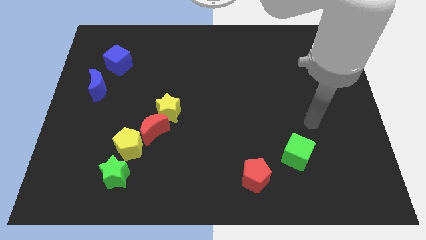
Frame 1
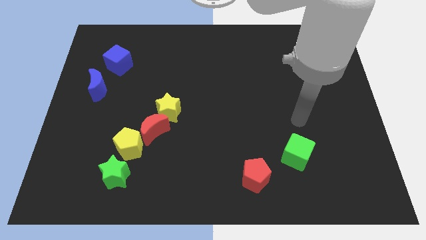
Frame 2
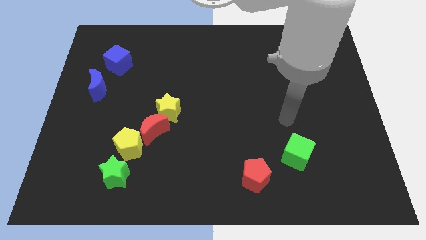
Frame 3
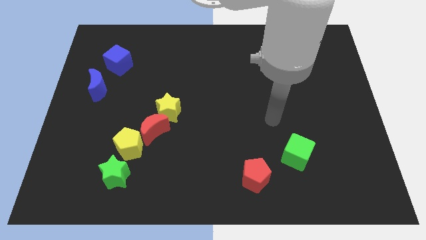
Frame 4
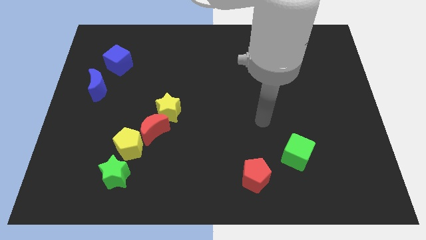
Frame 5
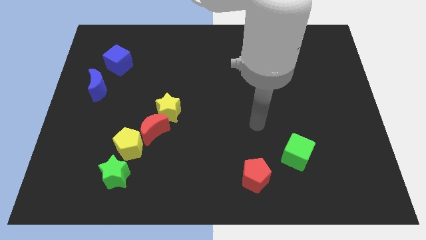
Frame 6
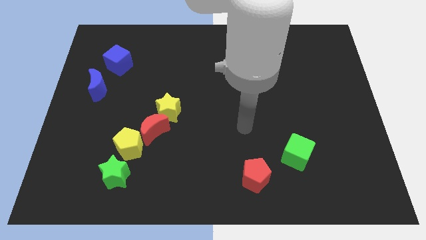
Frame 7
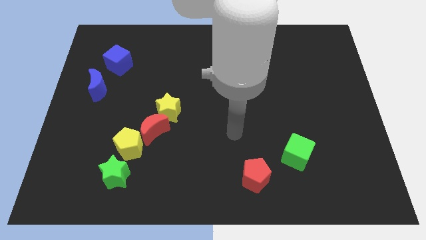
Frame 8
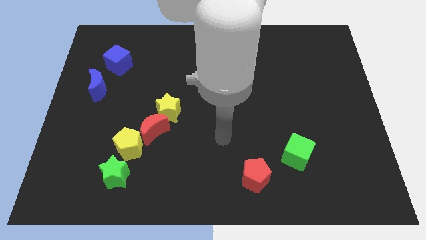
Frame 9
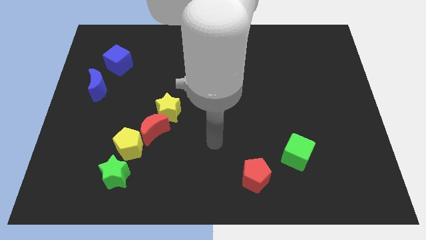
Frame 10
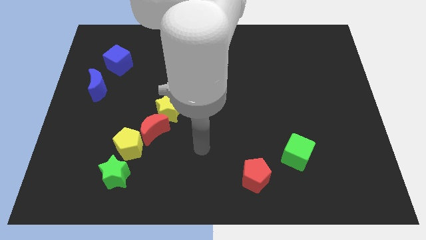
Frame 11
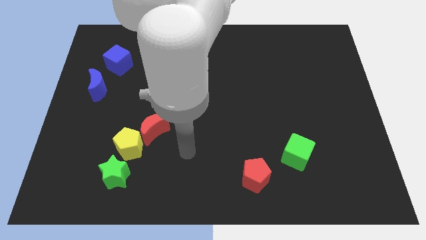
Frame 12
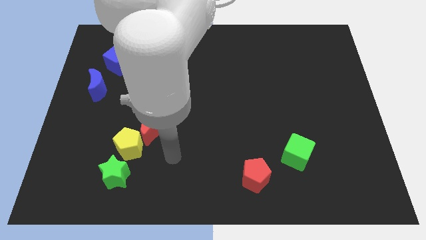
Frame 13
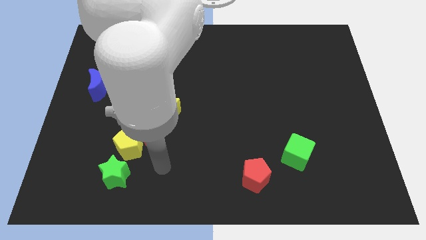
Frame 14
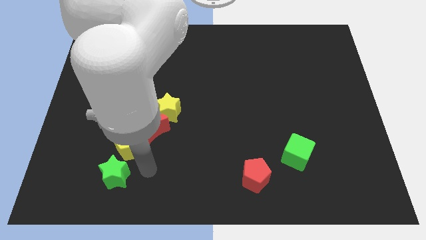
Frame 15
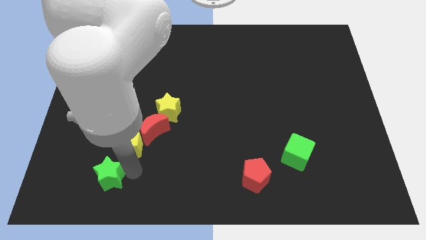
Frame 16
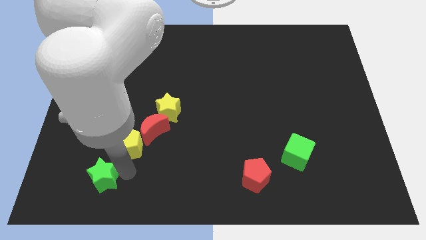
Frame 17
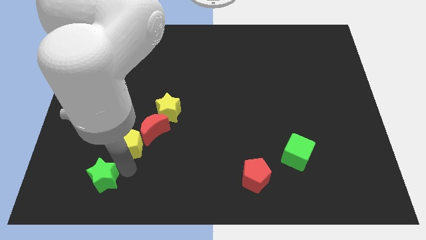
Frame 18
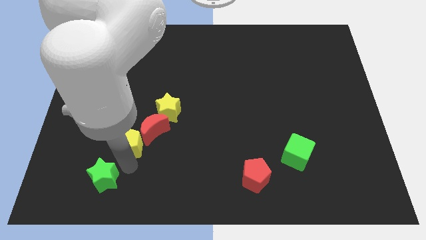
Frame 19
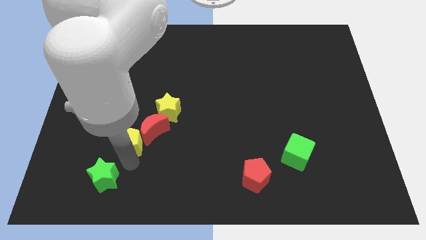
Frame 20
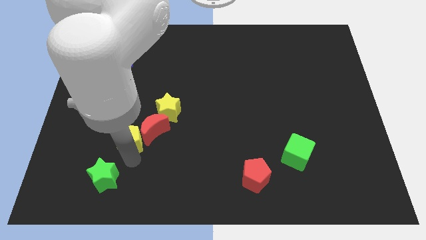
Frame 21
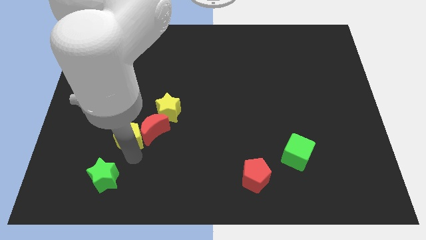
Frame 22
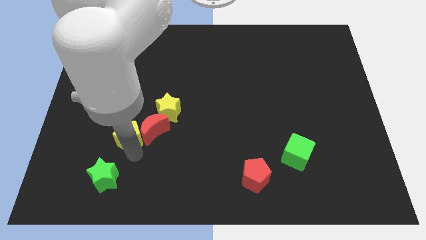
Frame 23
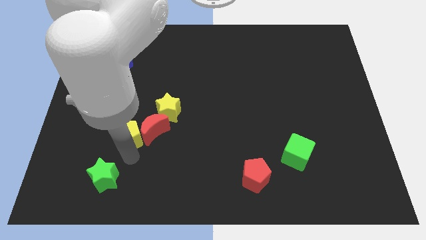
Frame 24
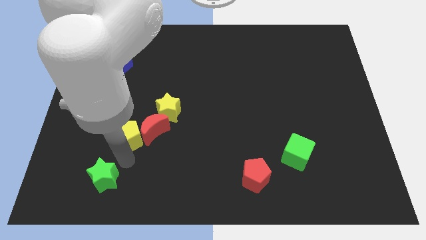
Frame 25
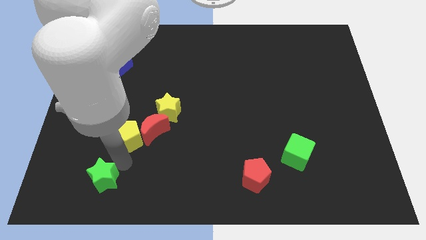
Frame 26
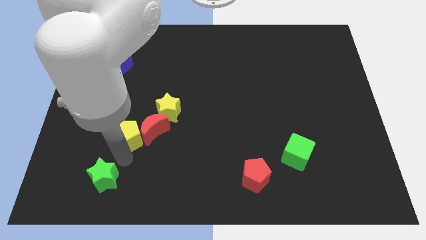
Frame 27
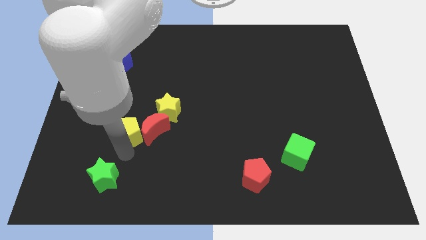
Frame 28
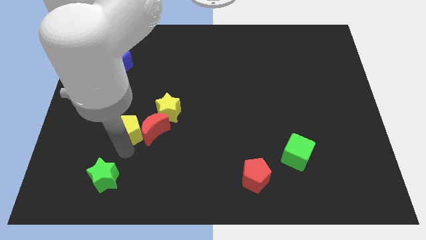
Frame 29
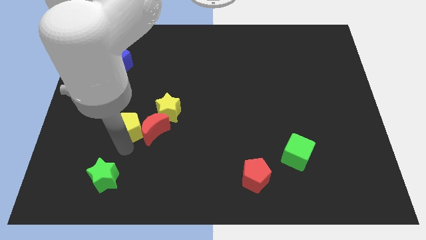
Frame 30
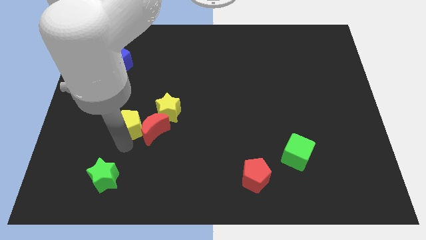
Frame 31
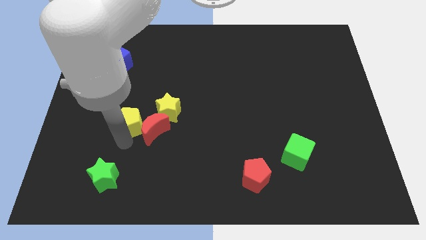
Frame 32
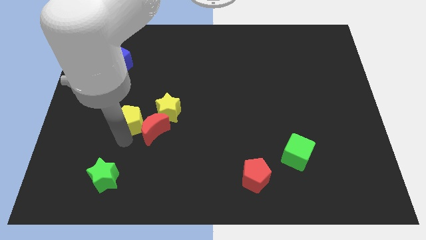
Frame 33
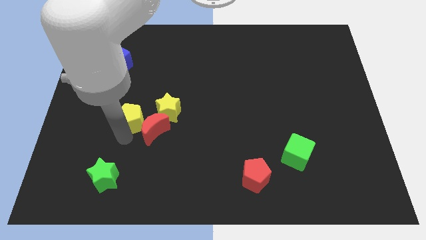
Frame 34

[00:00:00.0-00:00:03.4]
push the yellow pentagon somewhat up

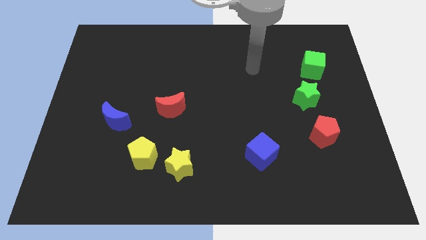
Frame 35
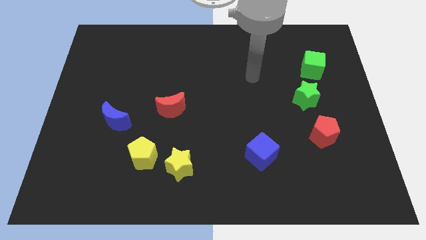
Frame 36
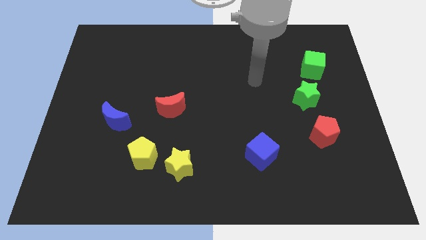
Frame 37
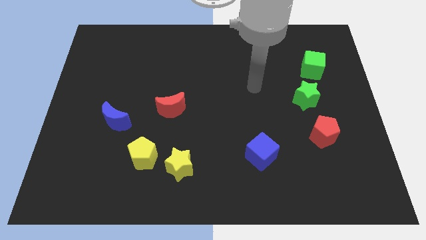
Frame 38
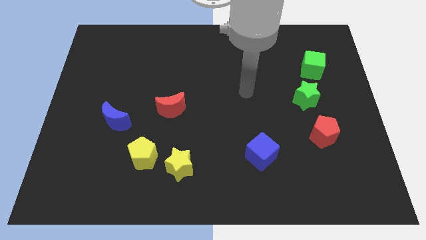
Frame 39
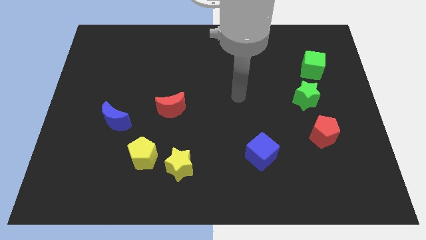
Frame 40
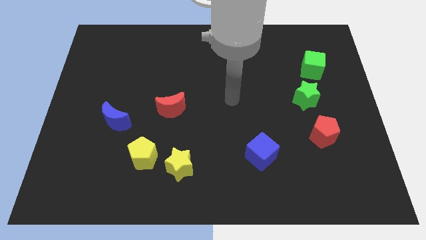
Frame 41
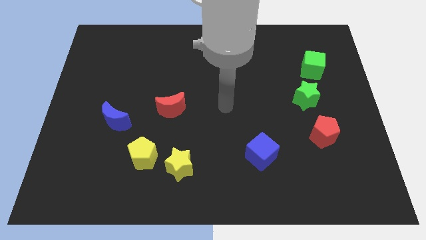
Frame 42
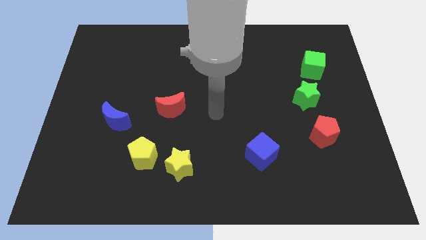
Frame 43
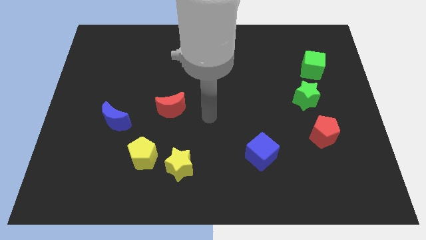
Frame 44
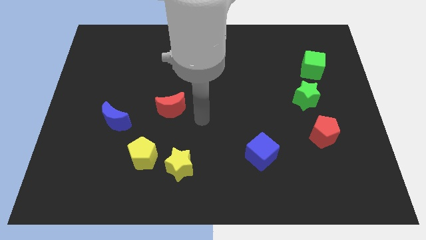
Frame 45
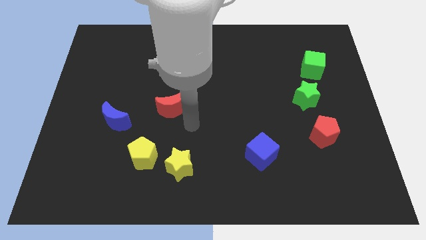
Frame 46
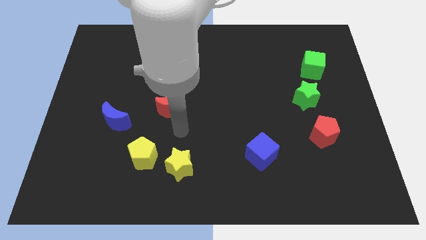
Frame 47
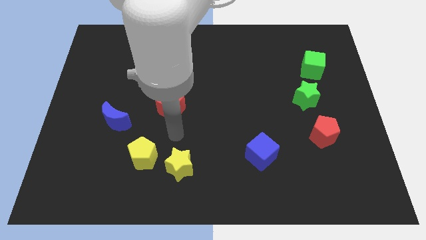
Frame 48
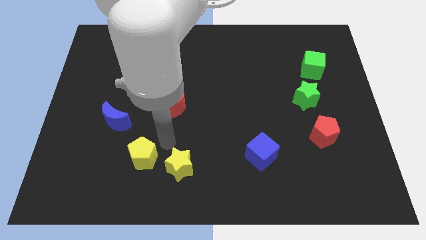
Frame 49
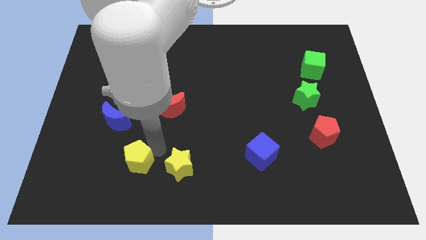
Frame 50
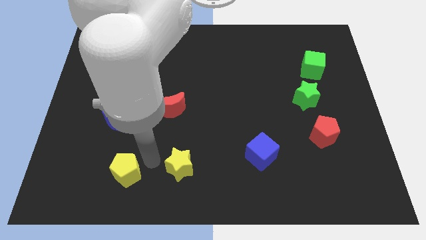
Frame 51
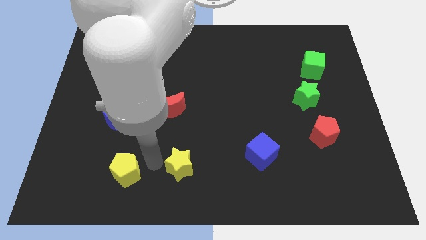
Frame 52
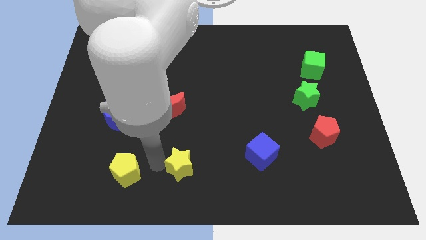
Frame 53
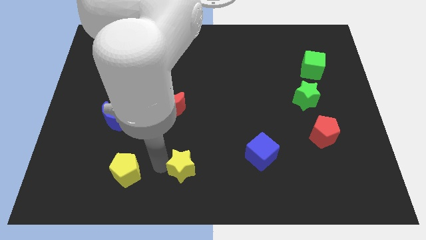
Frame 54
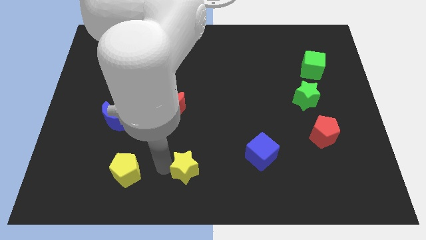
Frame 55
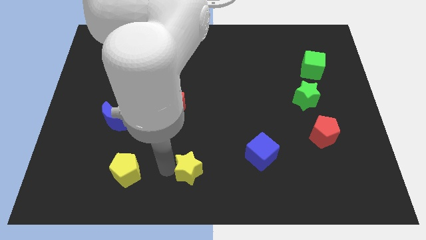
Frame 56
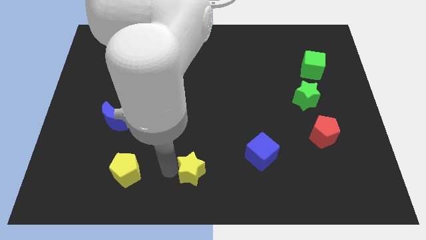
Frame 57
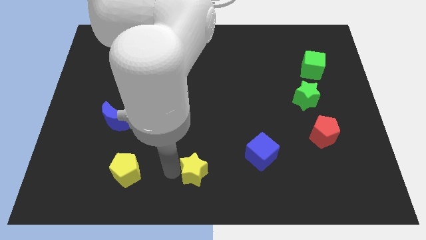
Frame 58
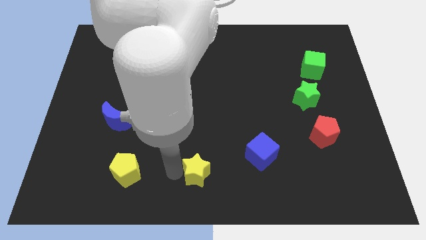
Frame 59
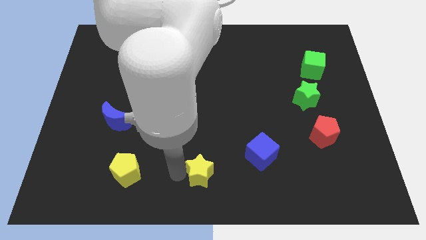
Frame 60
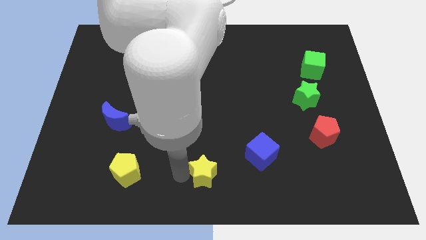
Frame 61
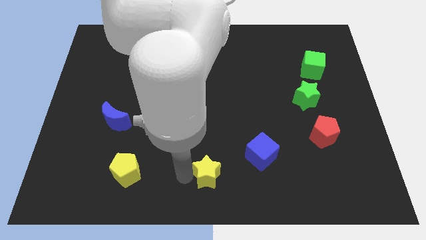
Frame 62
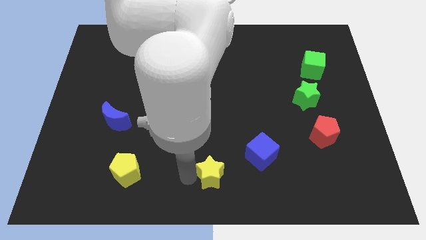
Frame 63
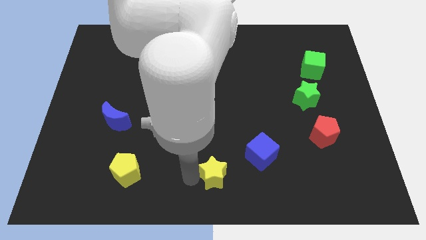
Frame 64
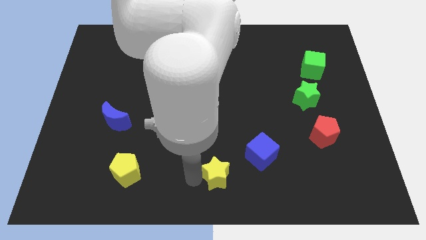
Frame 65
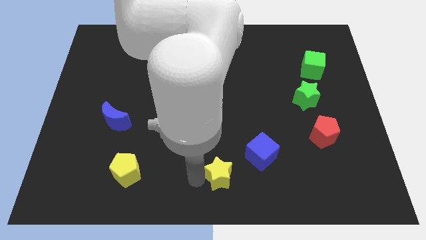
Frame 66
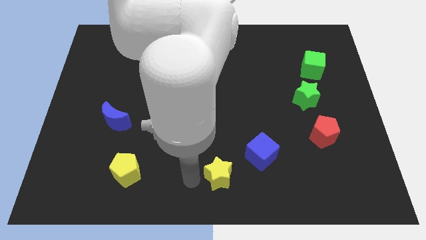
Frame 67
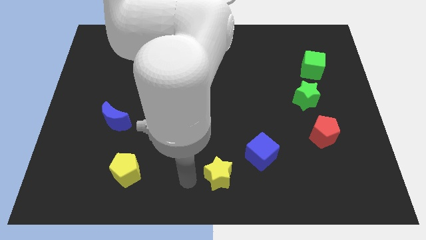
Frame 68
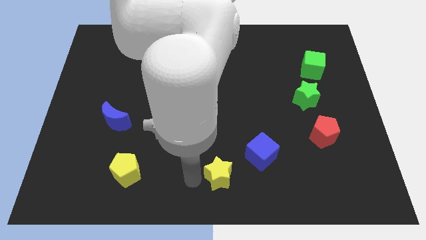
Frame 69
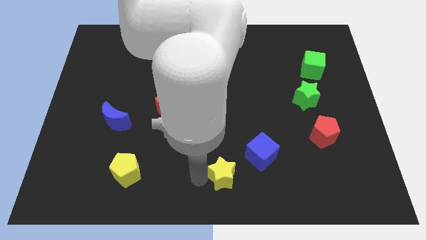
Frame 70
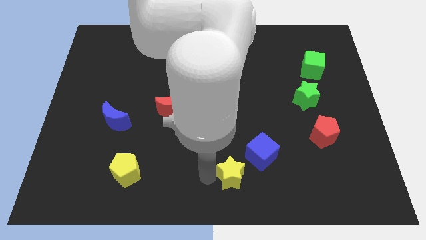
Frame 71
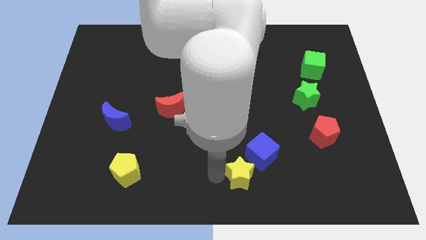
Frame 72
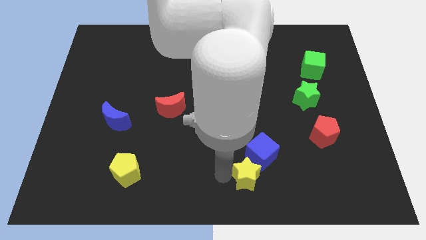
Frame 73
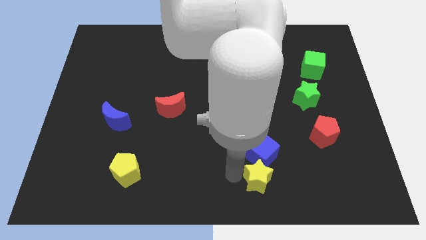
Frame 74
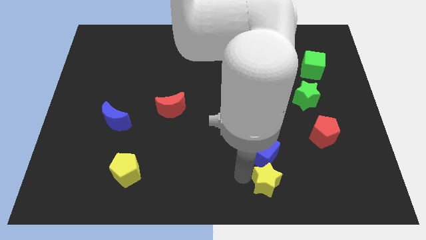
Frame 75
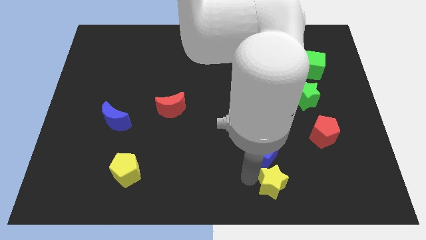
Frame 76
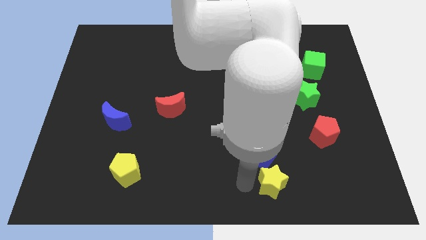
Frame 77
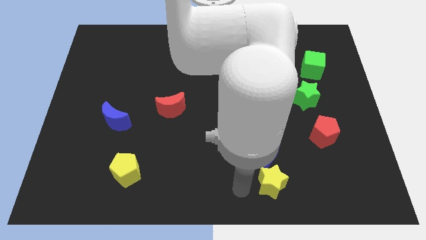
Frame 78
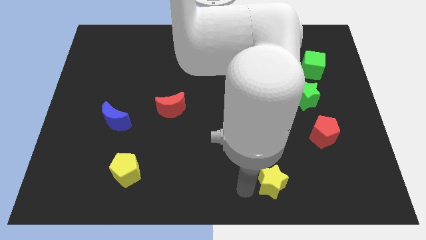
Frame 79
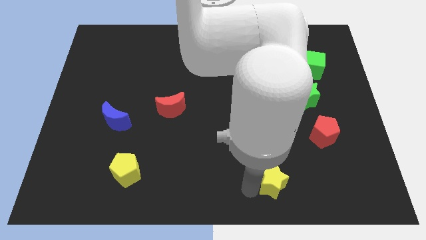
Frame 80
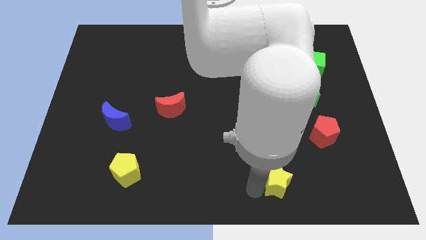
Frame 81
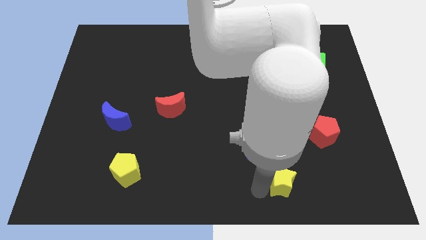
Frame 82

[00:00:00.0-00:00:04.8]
push the yellow star right
